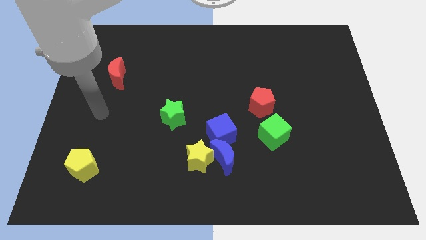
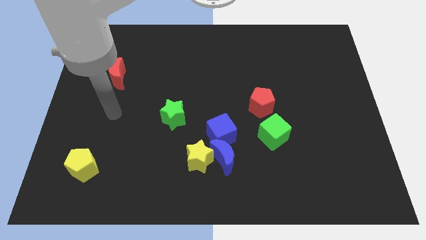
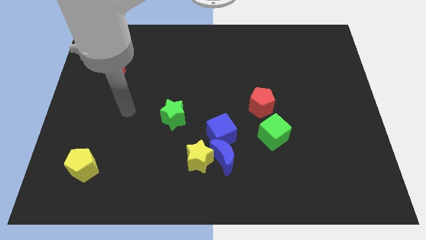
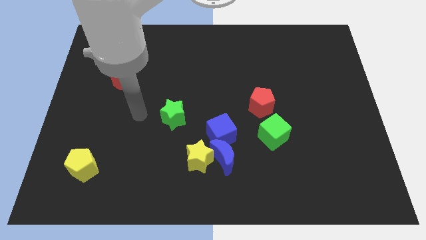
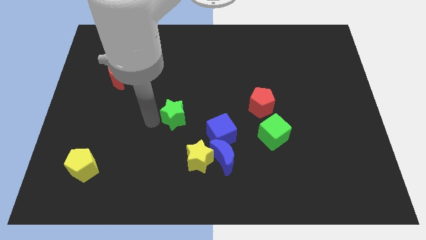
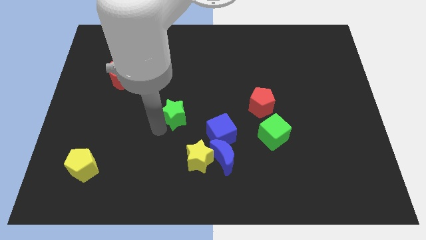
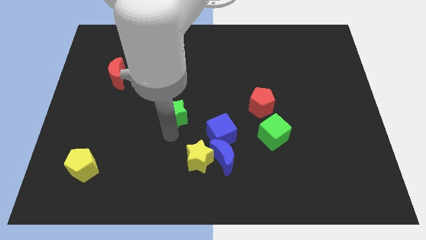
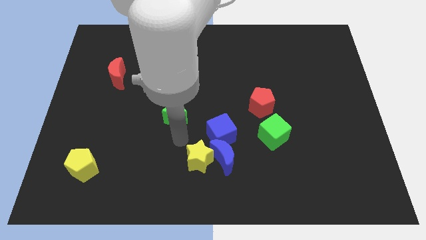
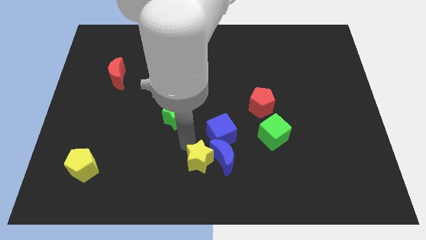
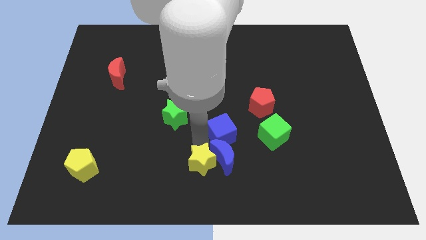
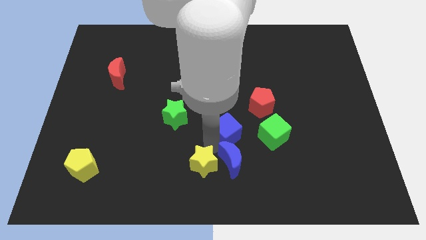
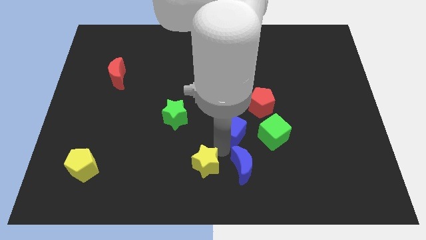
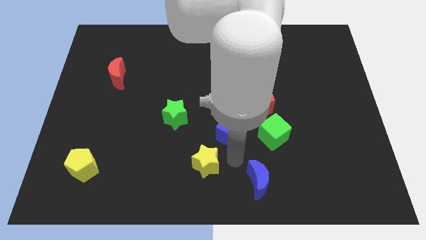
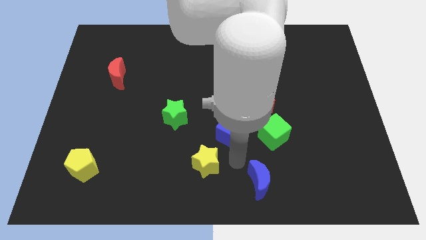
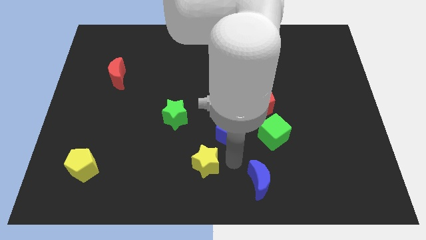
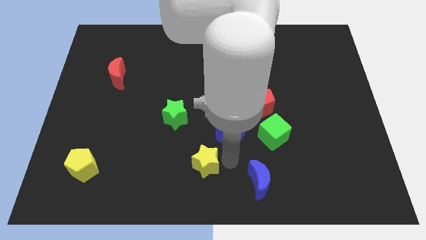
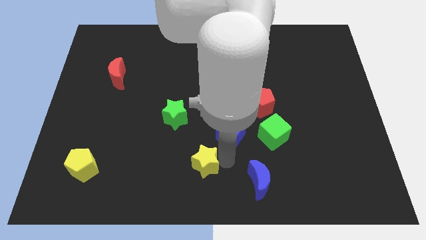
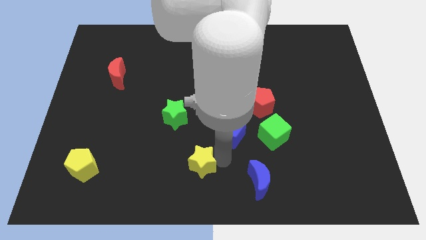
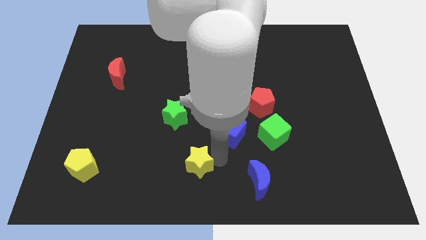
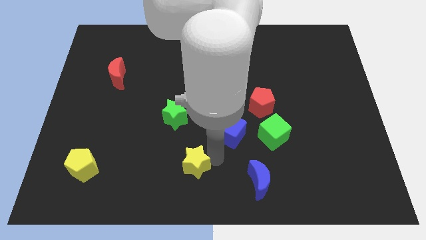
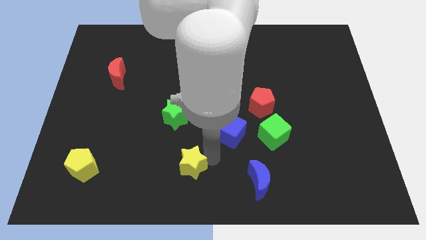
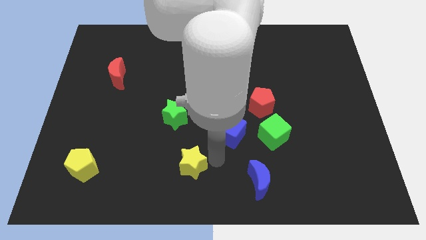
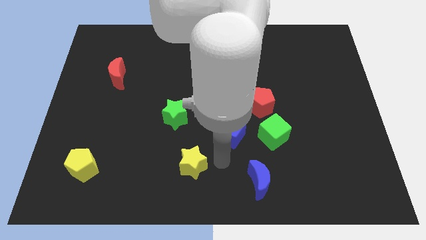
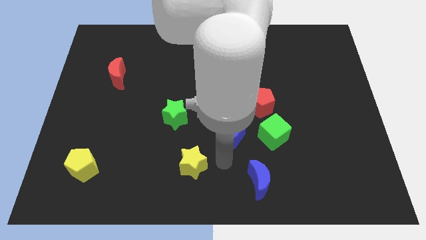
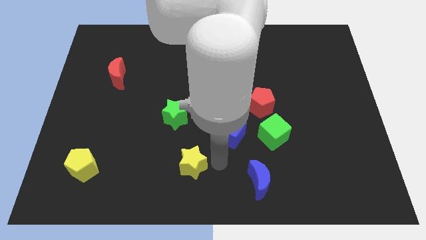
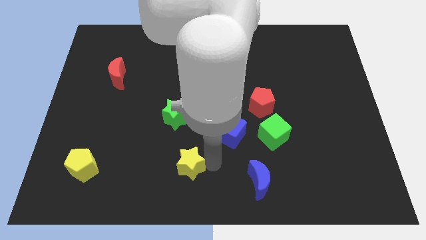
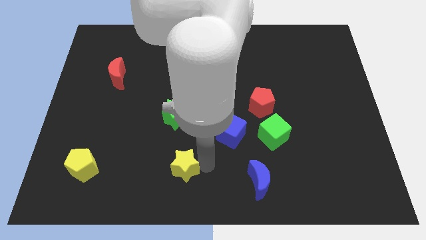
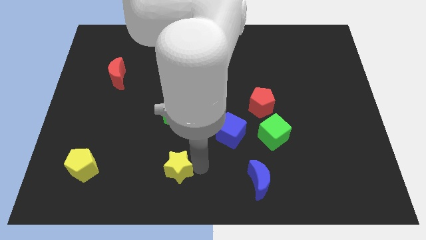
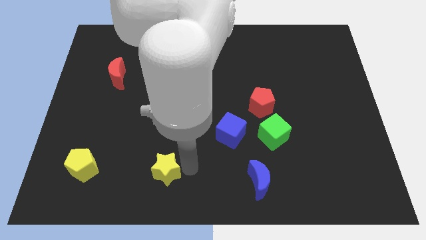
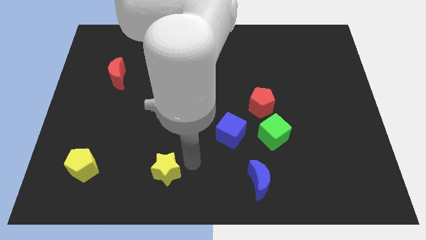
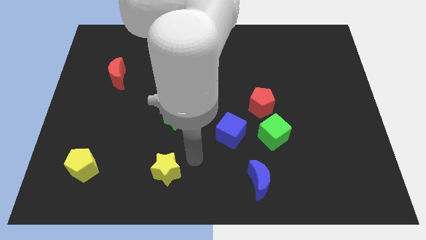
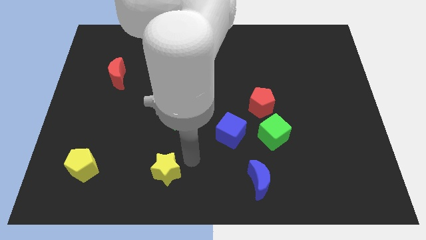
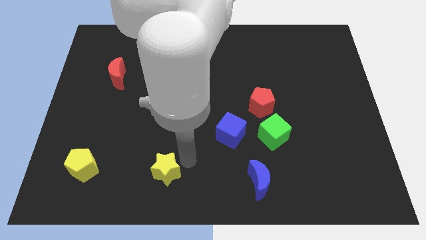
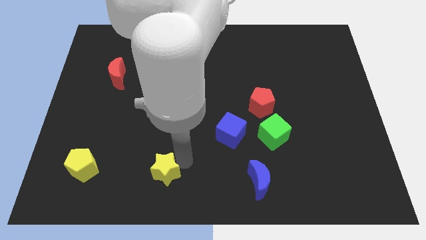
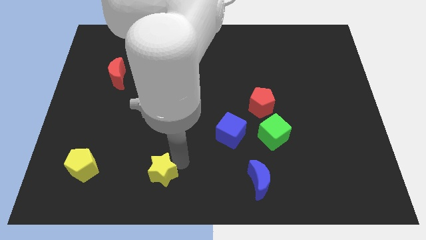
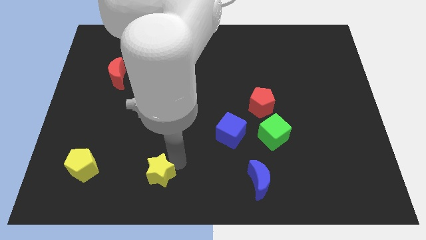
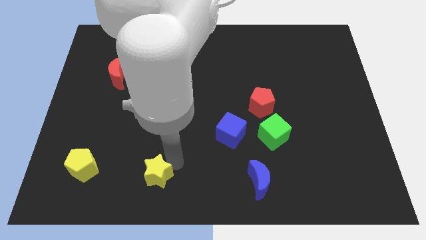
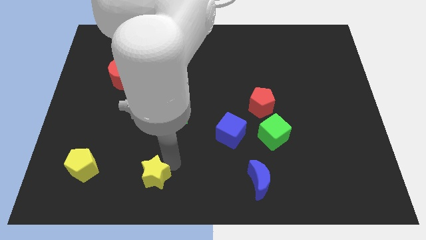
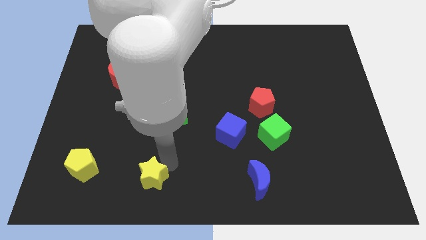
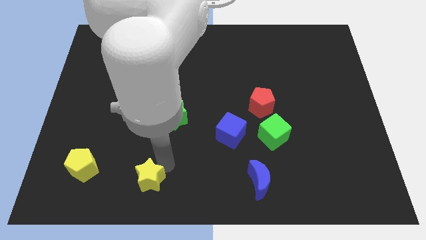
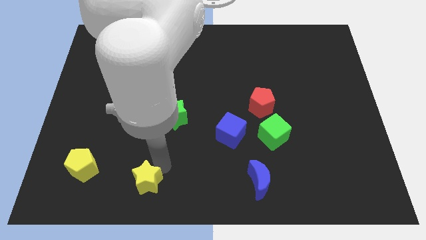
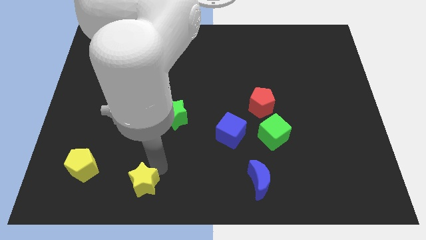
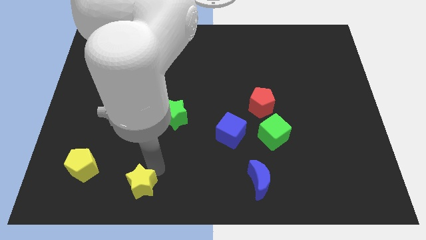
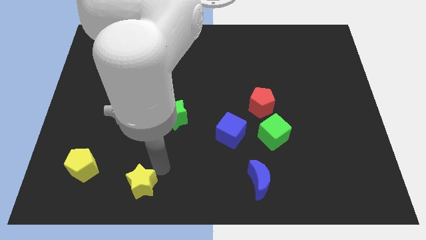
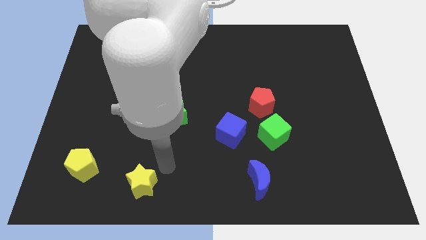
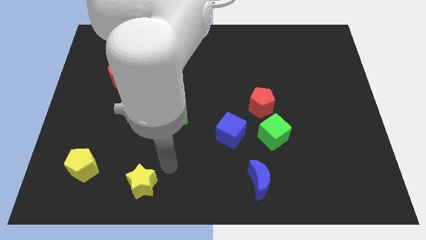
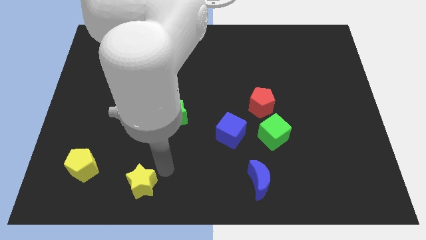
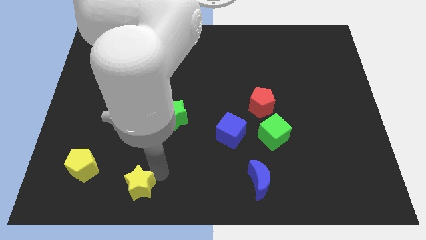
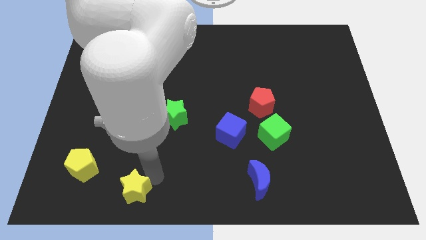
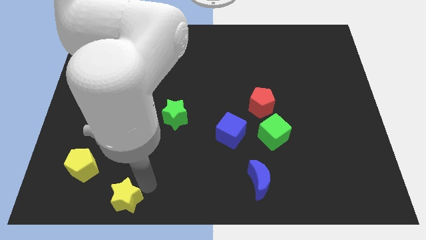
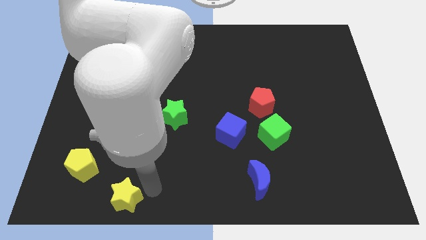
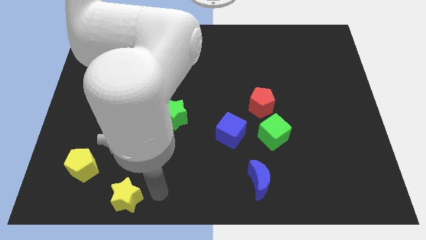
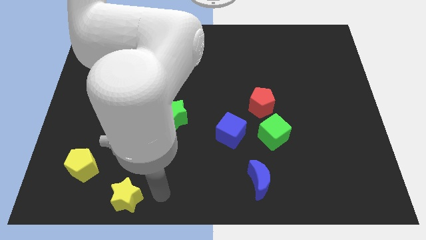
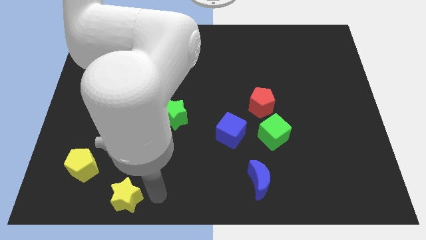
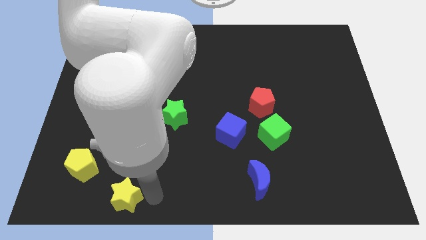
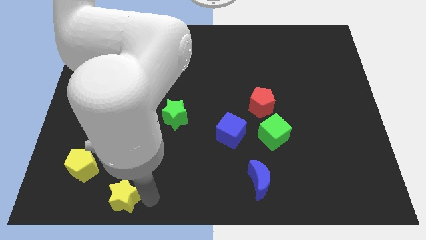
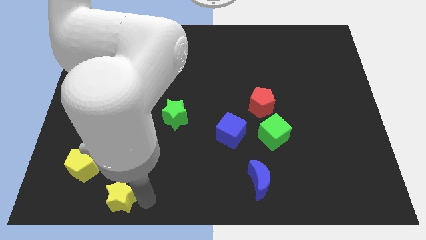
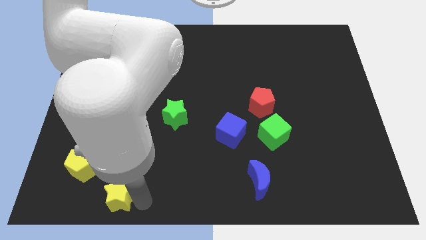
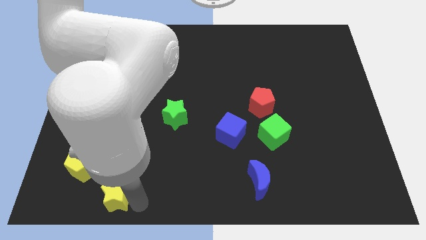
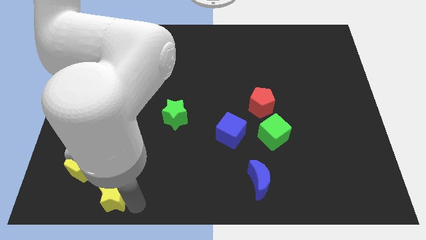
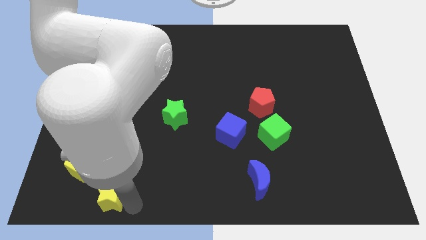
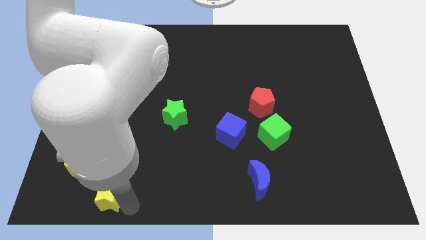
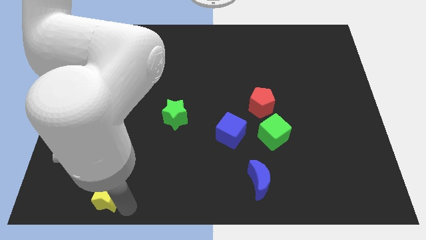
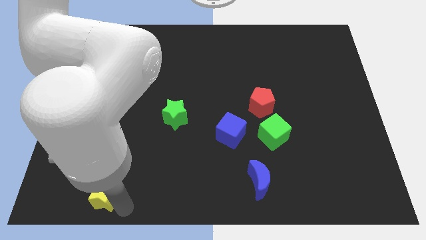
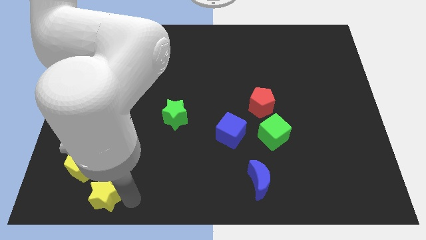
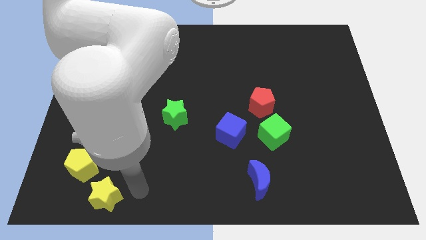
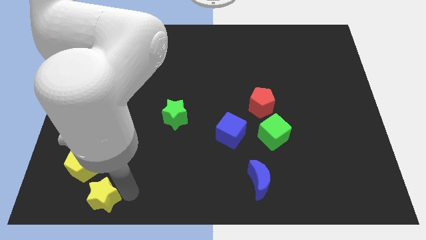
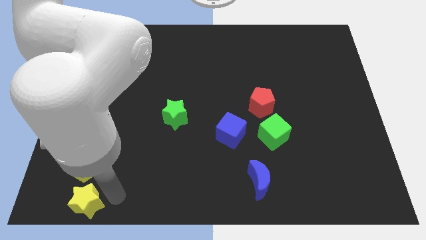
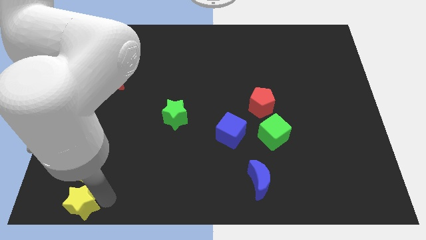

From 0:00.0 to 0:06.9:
push the yellow star to the bottom left of the board
